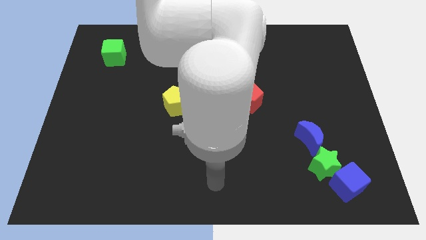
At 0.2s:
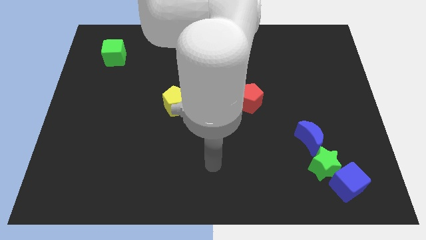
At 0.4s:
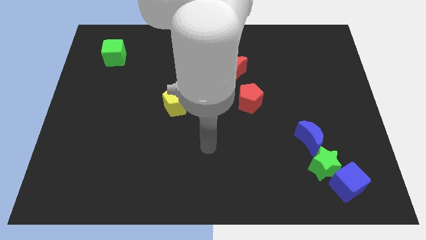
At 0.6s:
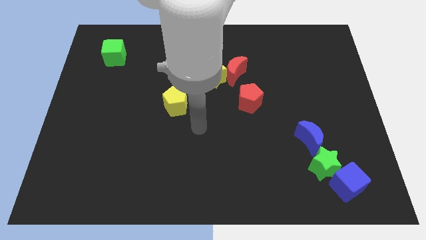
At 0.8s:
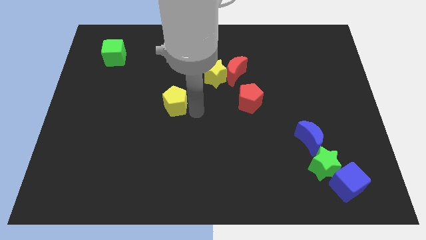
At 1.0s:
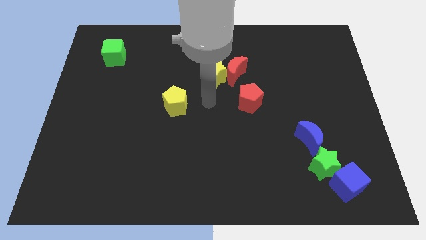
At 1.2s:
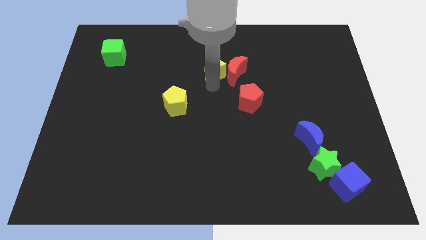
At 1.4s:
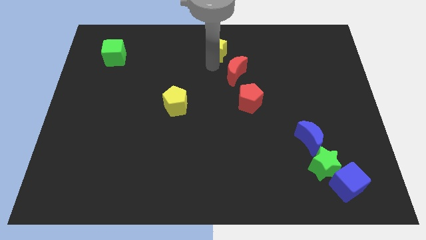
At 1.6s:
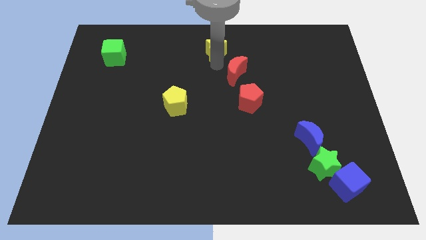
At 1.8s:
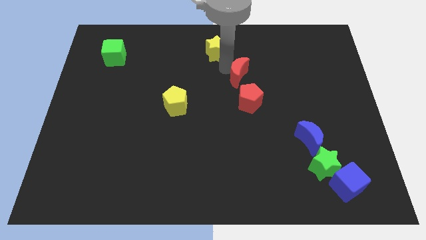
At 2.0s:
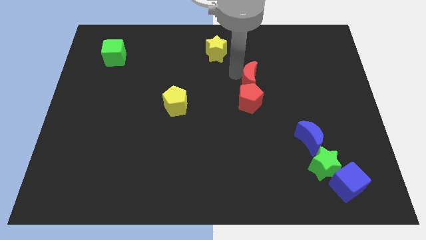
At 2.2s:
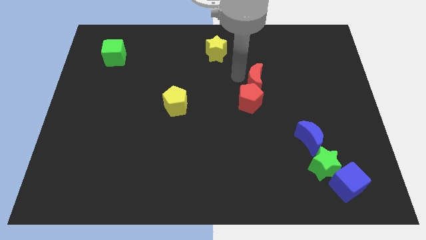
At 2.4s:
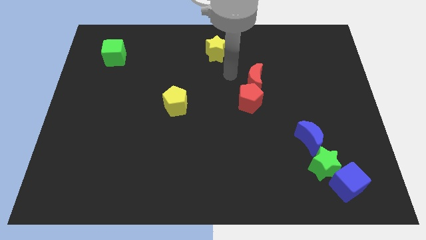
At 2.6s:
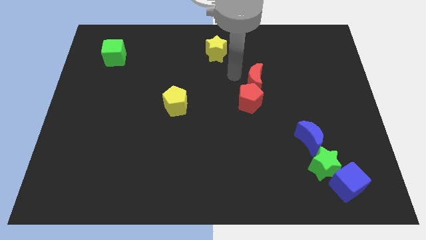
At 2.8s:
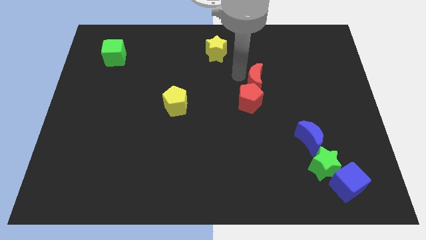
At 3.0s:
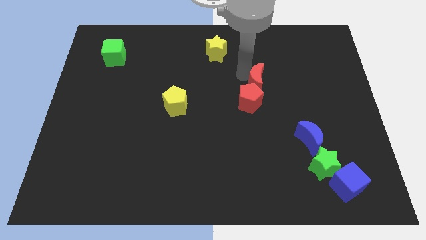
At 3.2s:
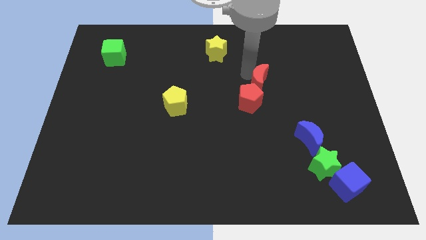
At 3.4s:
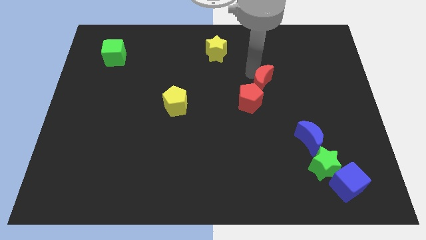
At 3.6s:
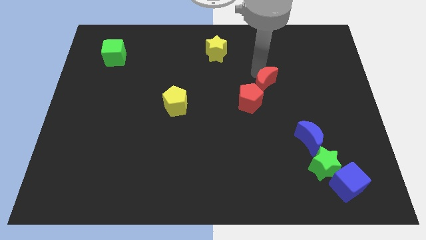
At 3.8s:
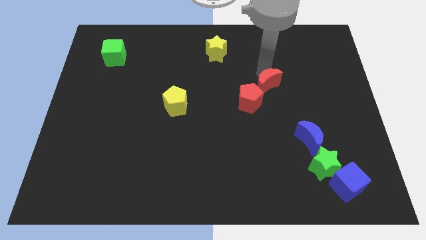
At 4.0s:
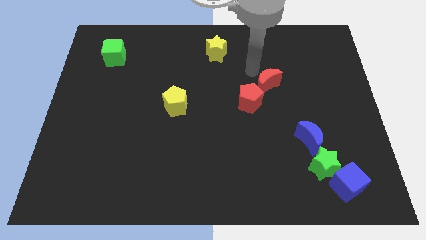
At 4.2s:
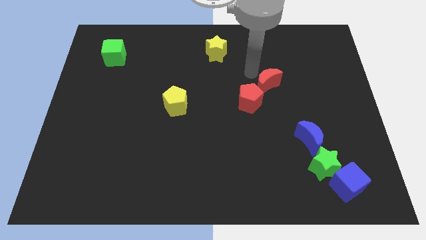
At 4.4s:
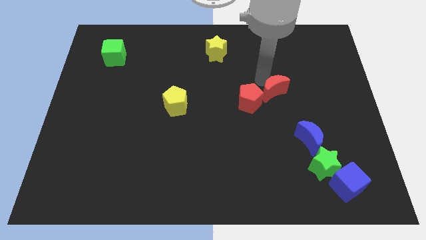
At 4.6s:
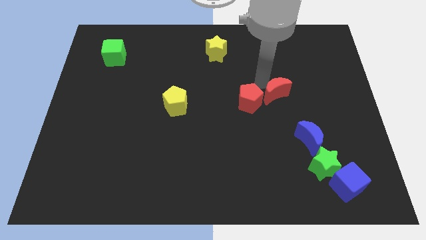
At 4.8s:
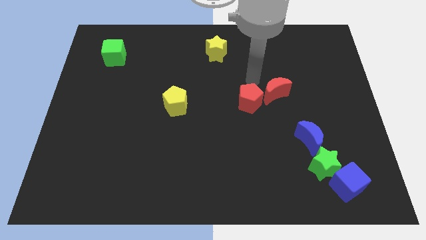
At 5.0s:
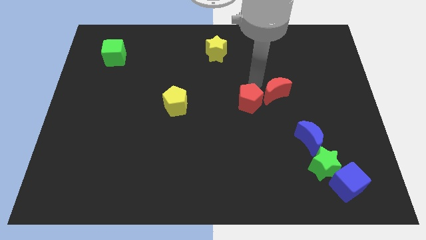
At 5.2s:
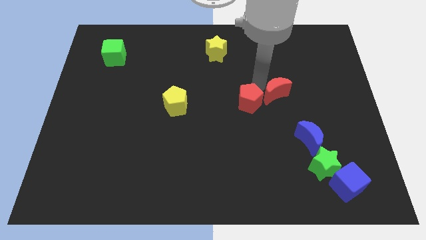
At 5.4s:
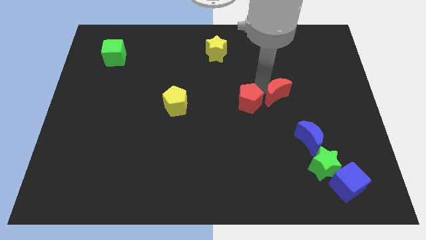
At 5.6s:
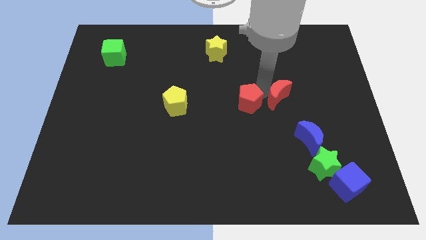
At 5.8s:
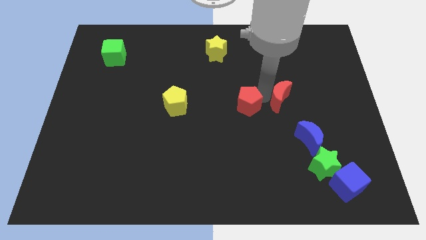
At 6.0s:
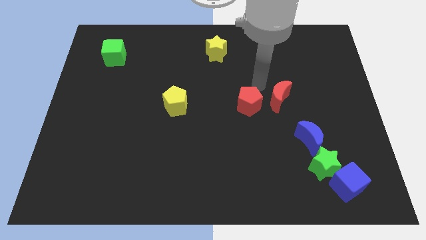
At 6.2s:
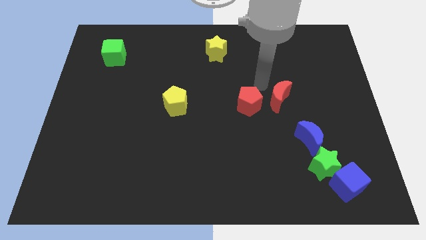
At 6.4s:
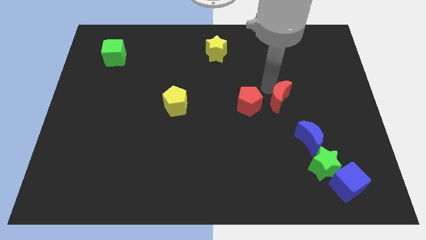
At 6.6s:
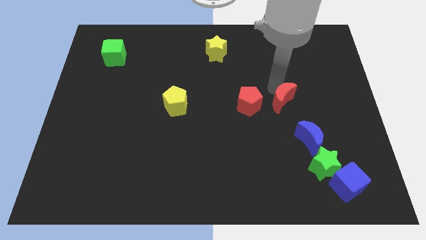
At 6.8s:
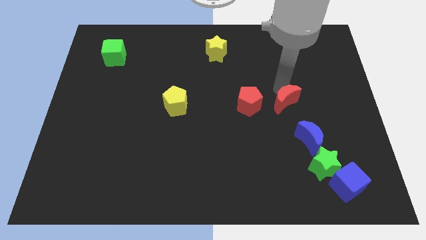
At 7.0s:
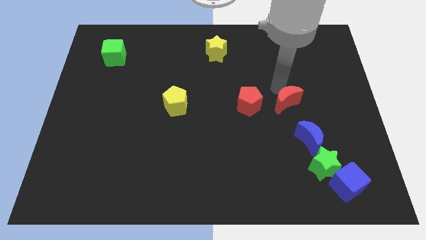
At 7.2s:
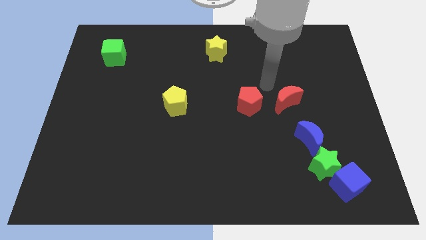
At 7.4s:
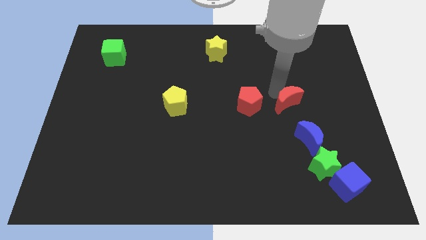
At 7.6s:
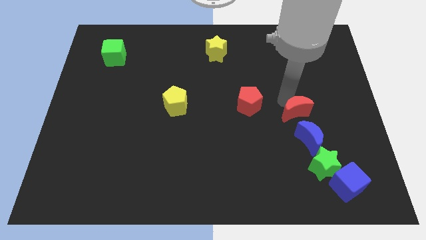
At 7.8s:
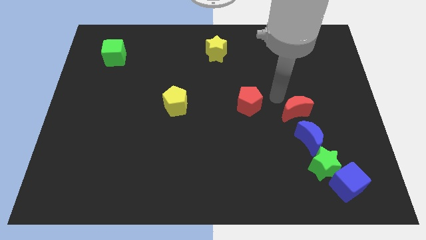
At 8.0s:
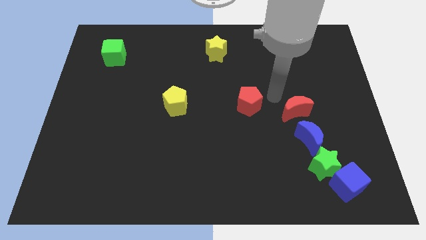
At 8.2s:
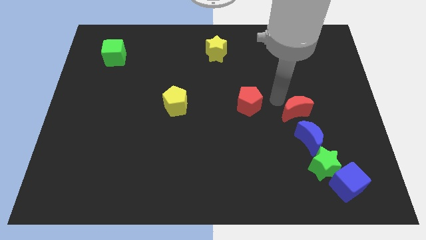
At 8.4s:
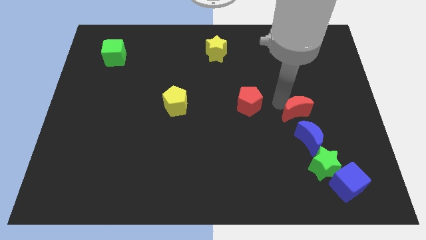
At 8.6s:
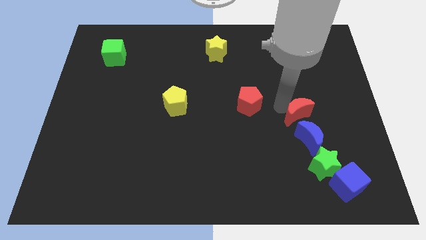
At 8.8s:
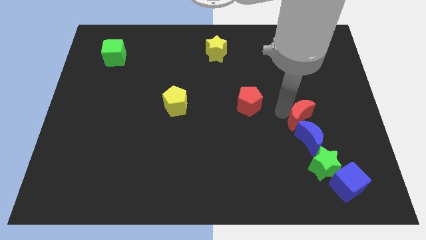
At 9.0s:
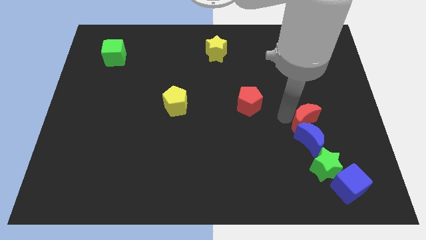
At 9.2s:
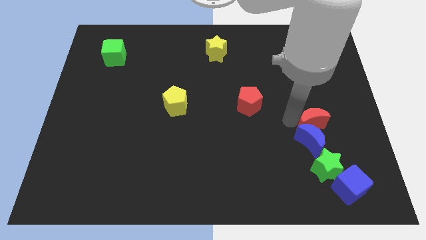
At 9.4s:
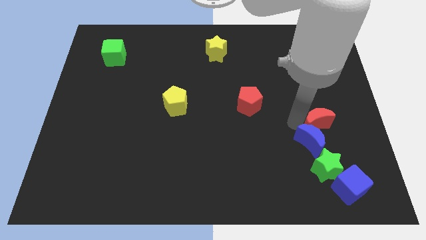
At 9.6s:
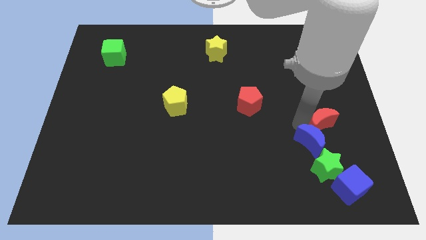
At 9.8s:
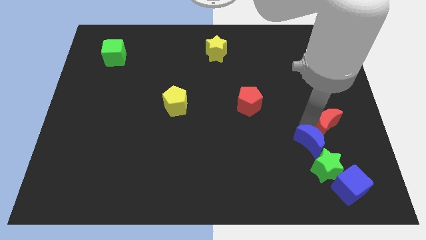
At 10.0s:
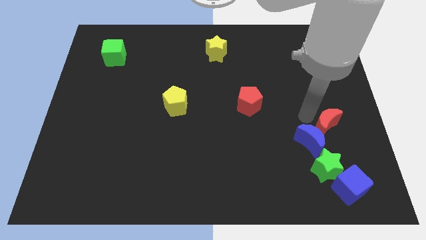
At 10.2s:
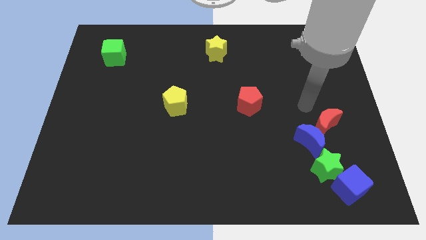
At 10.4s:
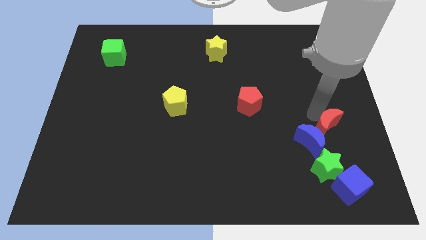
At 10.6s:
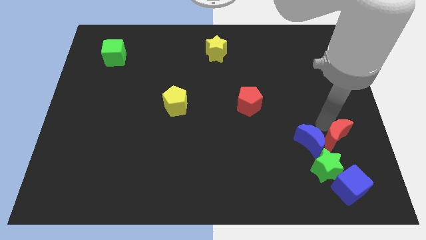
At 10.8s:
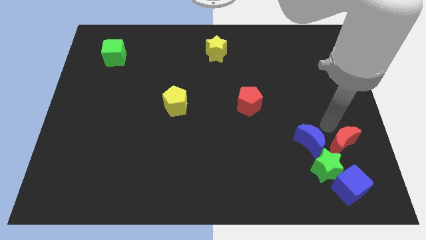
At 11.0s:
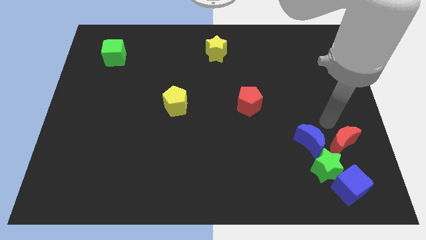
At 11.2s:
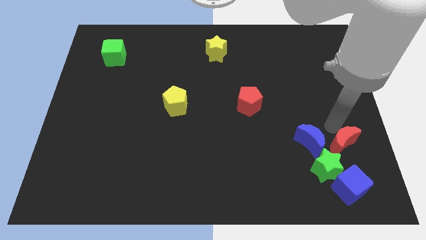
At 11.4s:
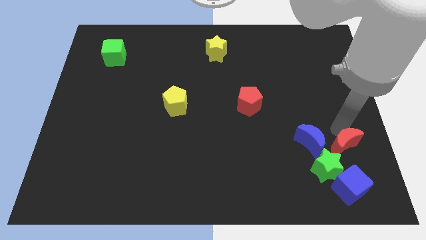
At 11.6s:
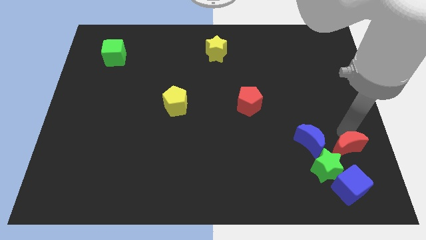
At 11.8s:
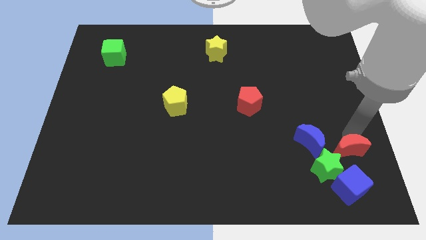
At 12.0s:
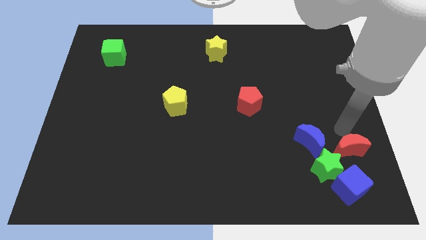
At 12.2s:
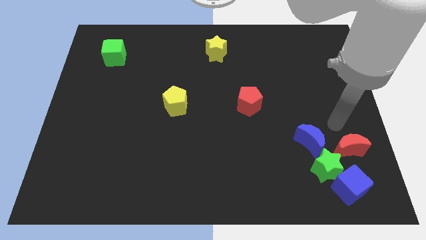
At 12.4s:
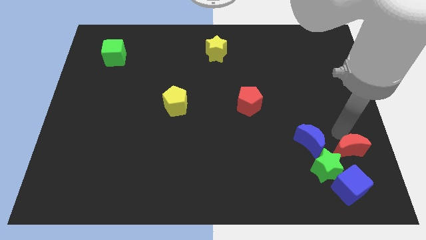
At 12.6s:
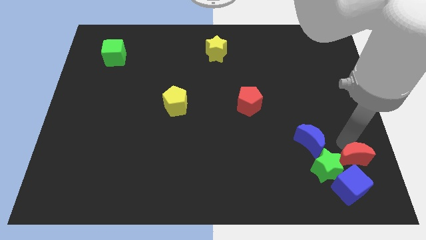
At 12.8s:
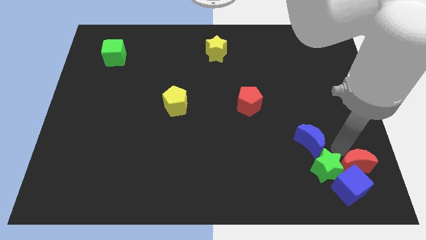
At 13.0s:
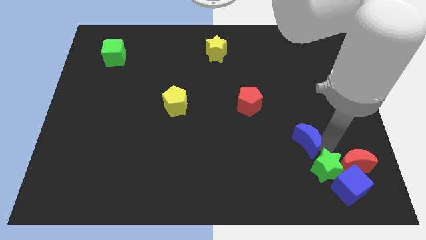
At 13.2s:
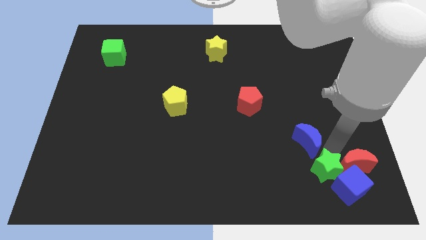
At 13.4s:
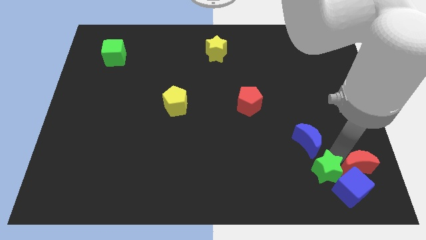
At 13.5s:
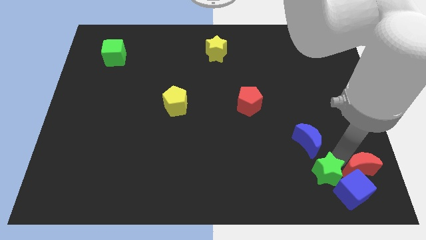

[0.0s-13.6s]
slide the red moon to the bottom right
